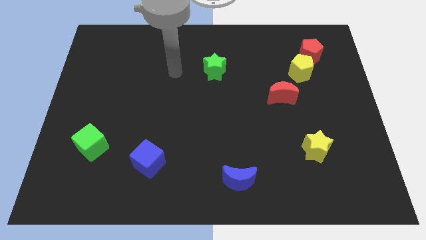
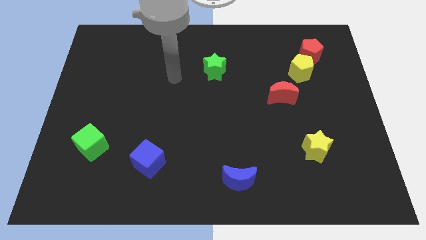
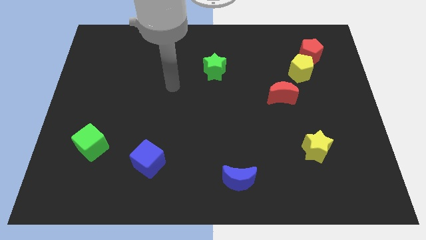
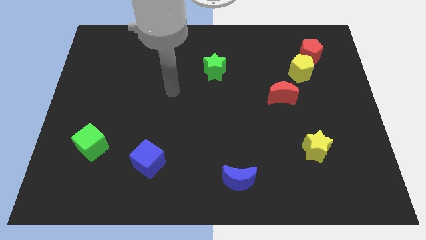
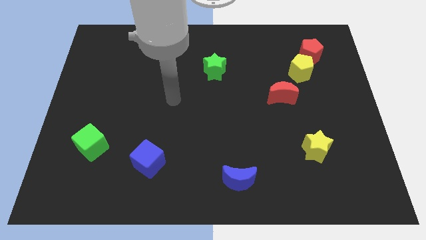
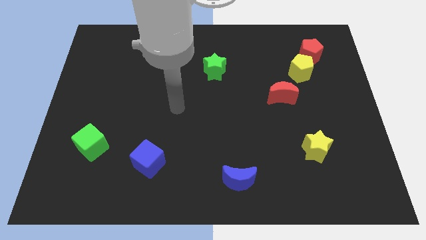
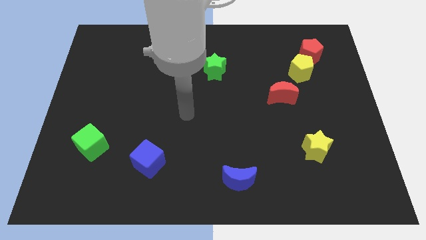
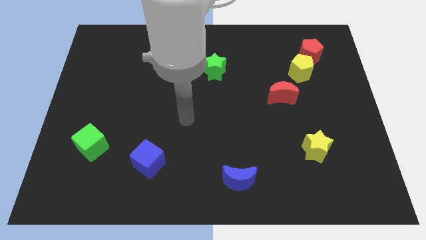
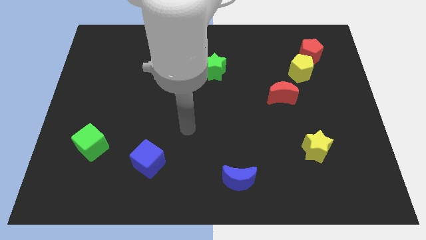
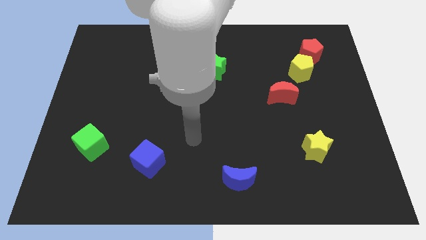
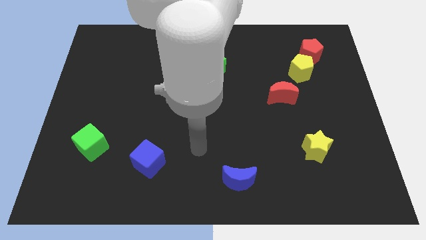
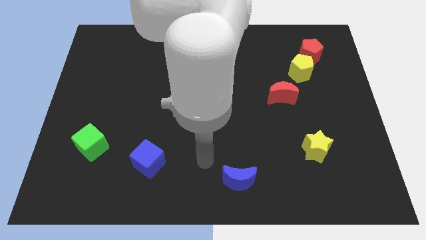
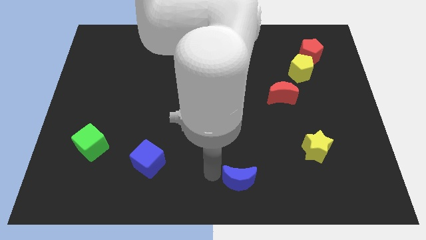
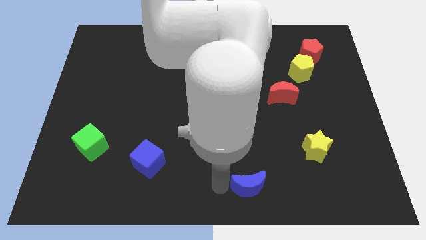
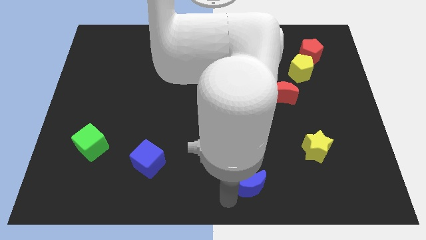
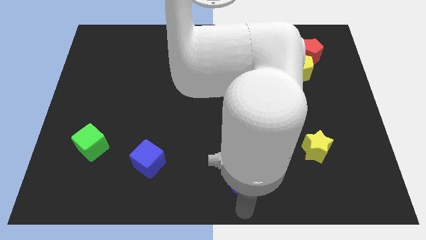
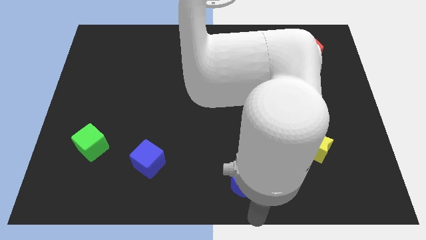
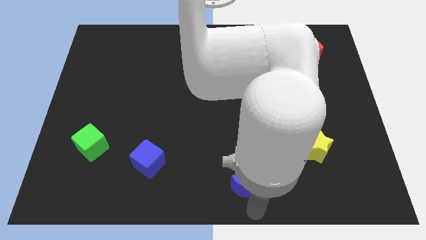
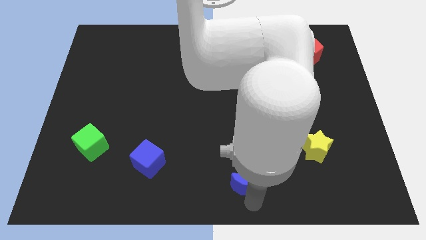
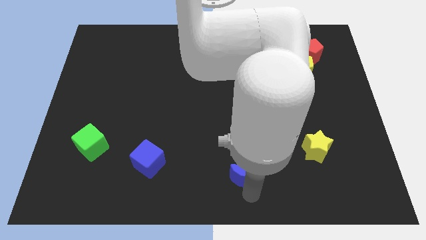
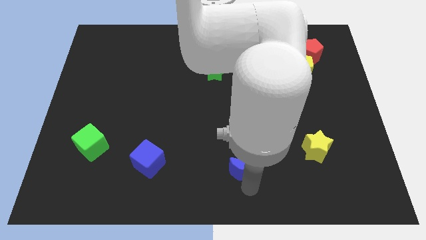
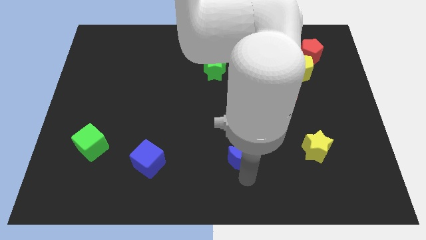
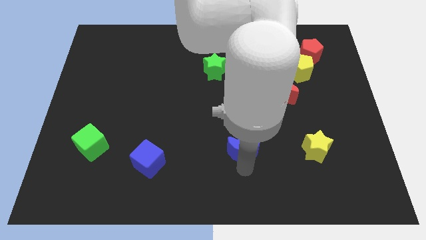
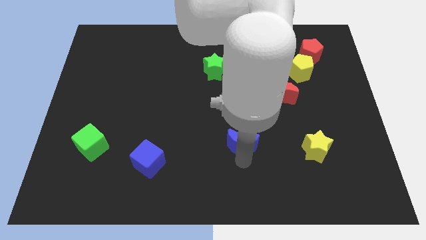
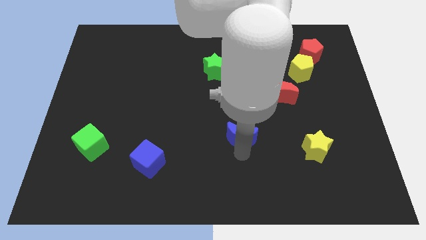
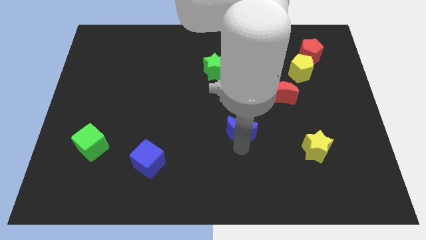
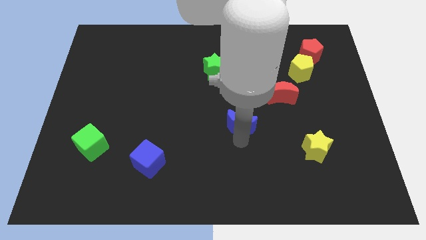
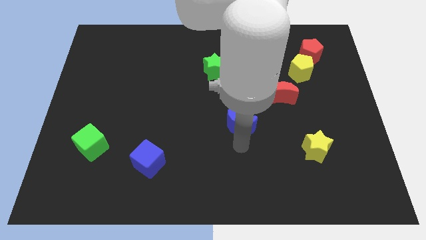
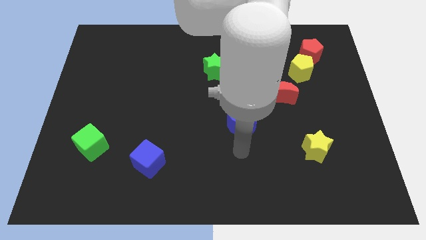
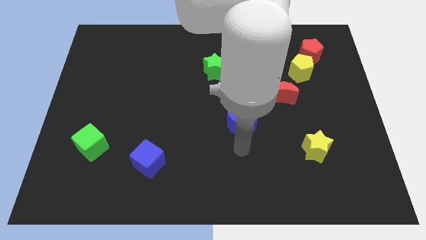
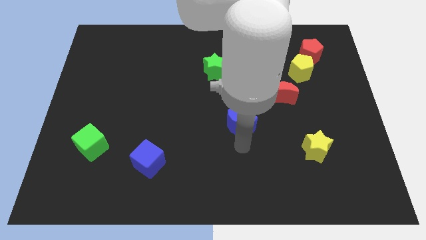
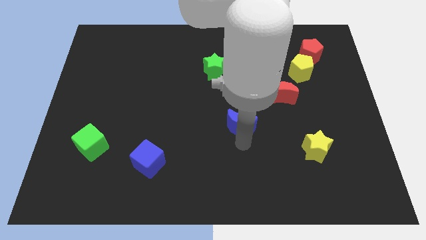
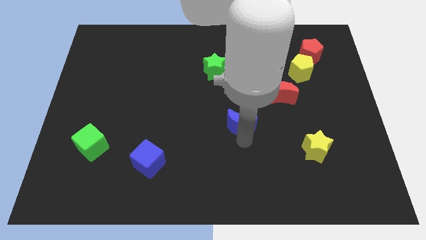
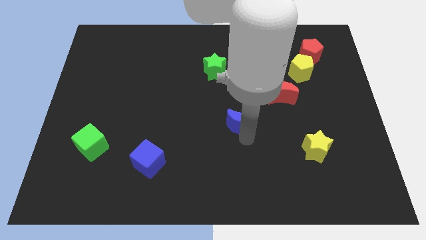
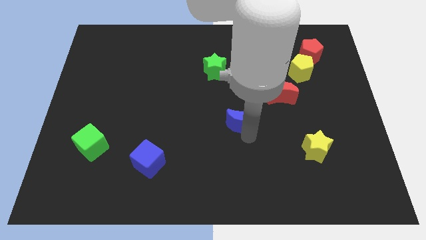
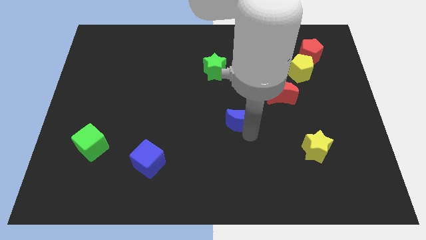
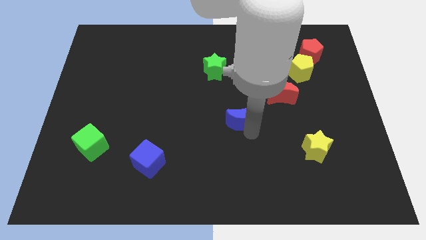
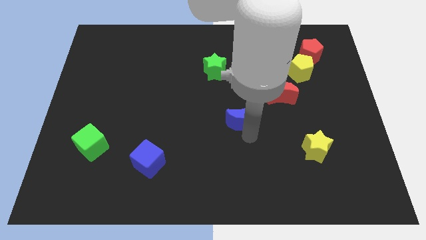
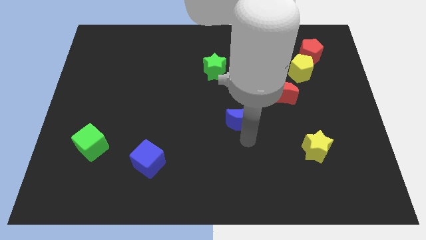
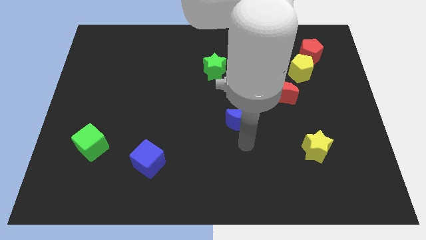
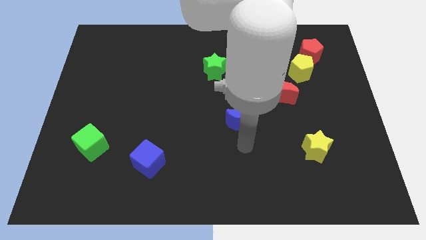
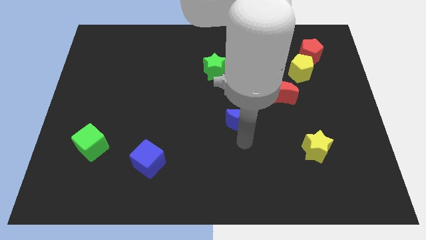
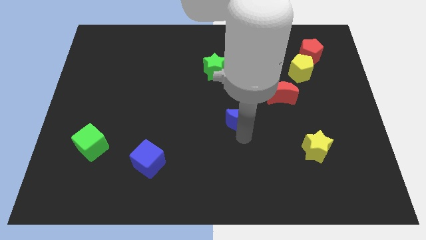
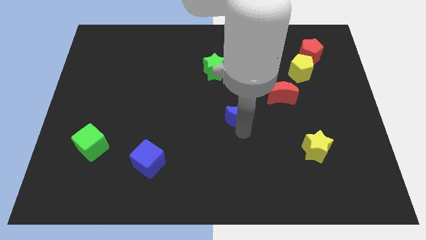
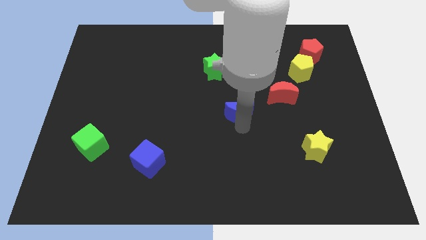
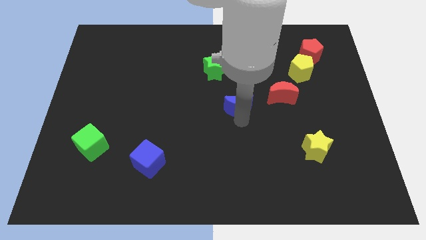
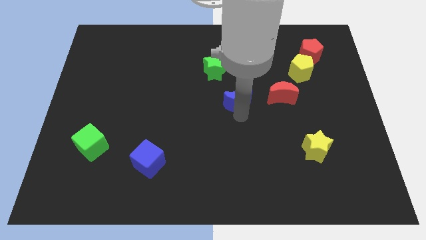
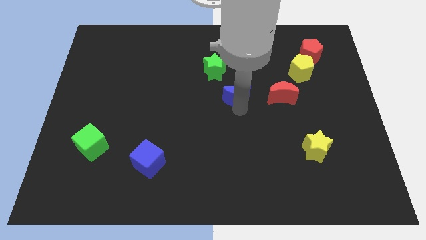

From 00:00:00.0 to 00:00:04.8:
move the blue moon to the bottom right side of the green star

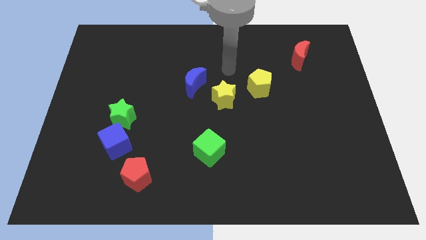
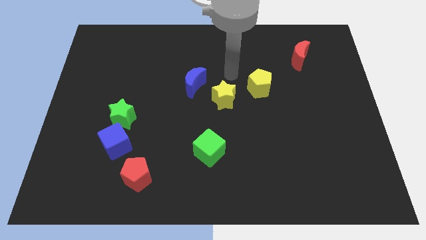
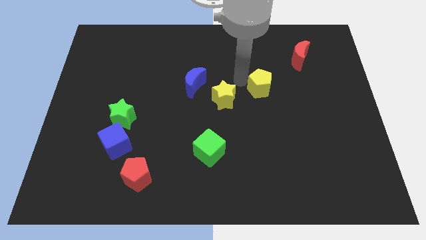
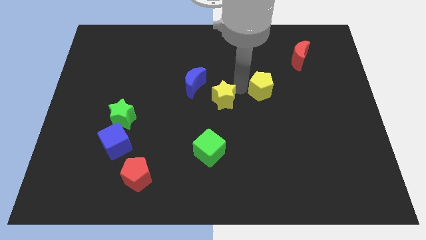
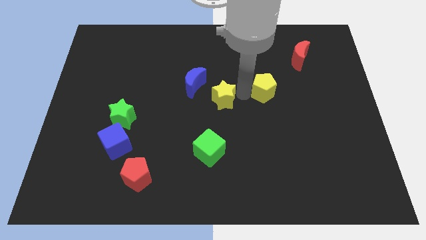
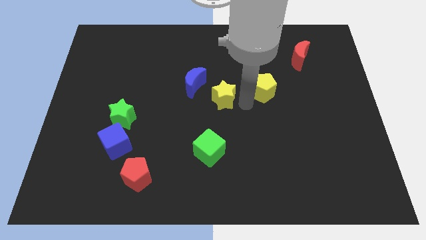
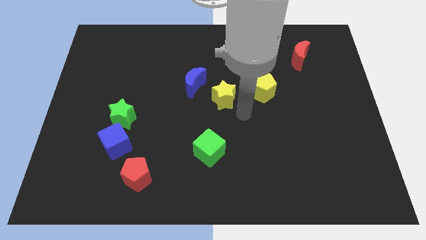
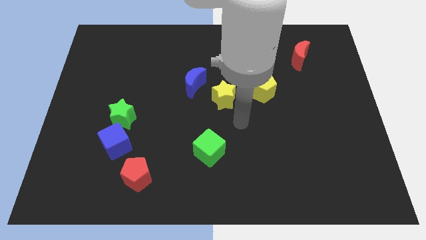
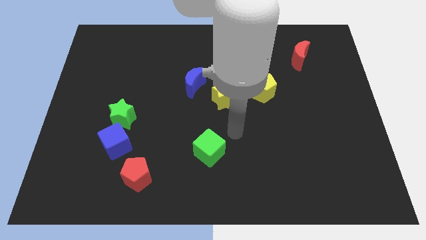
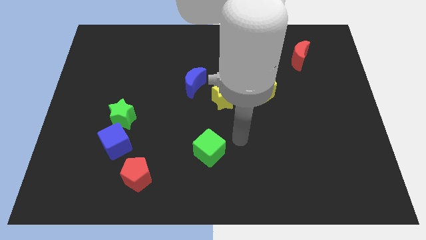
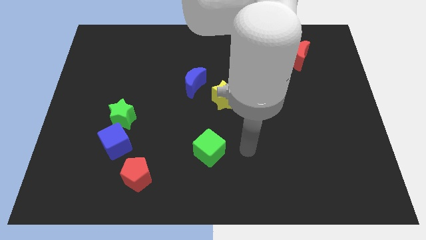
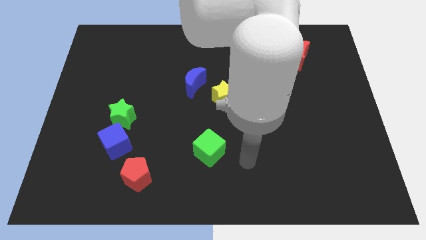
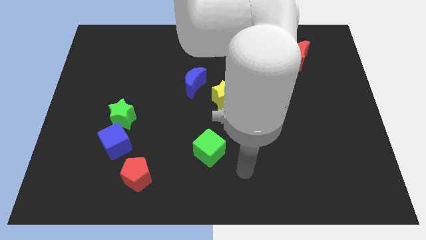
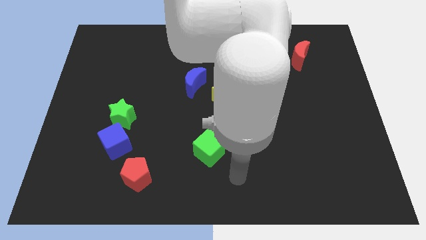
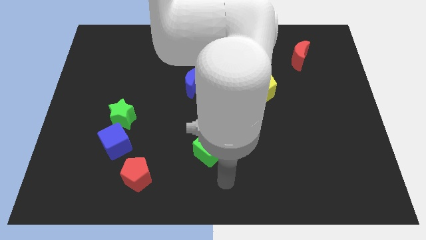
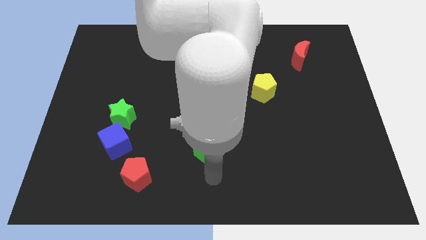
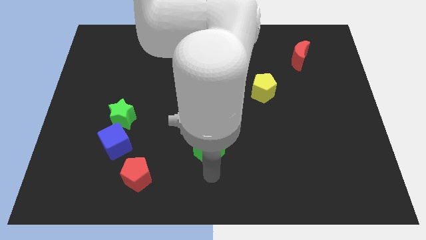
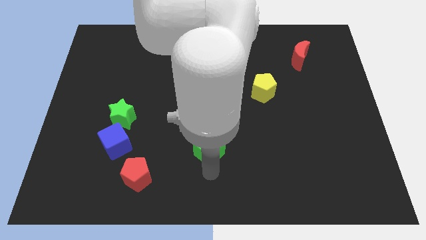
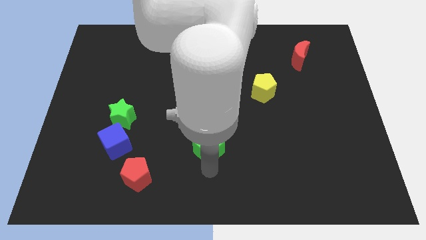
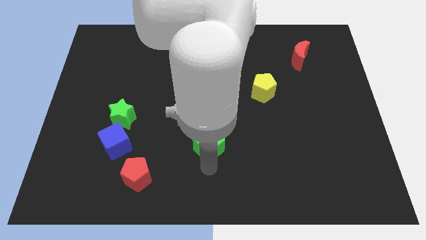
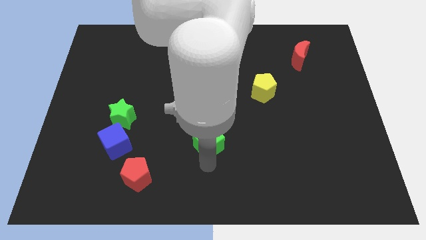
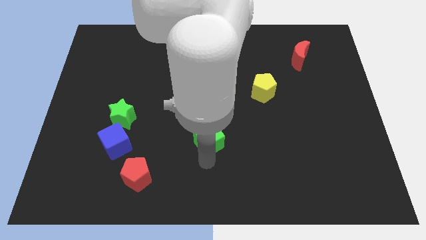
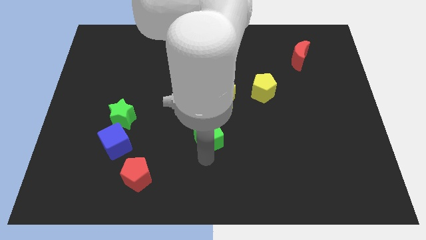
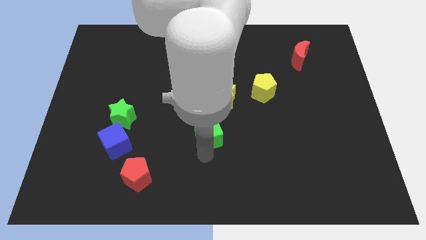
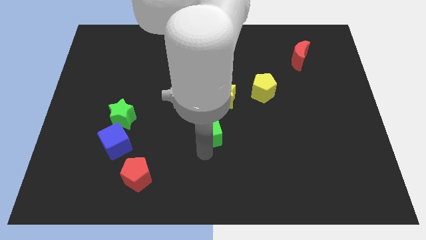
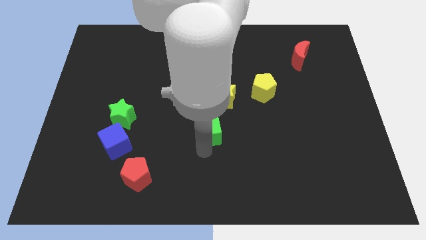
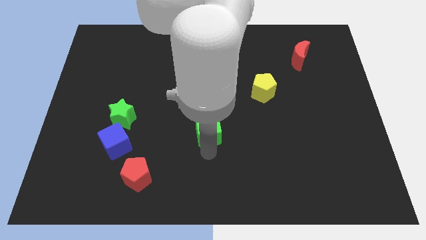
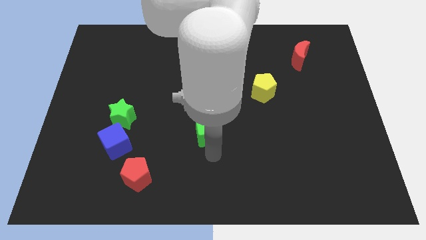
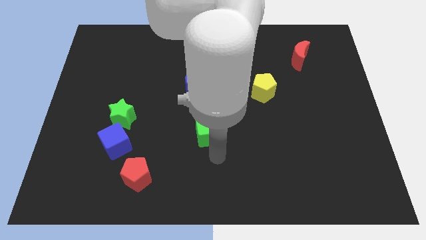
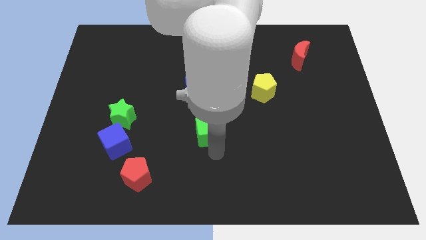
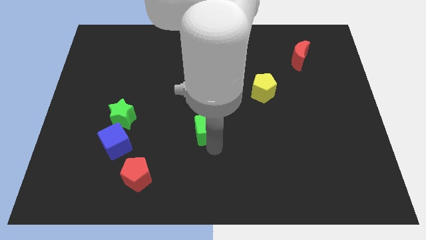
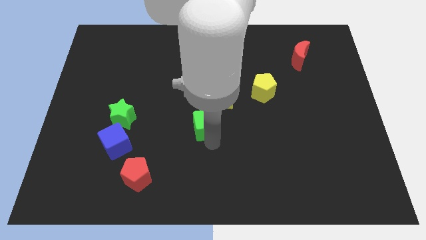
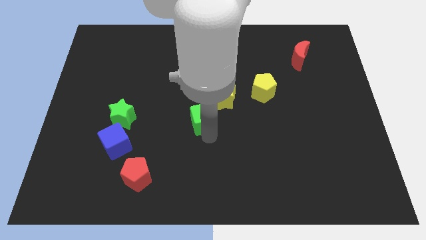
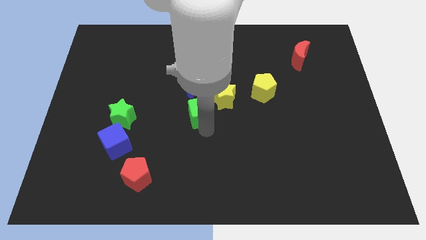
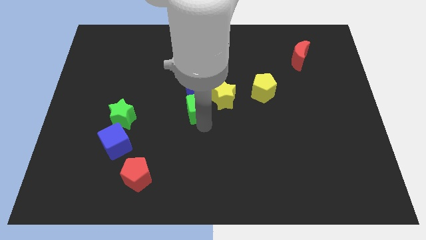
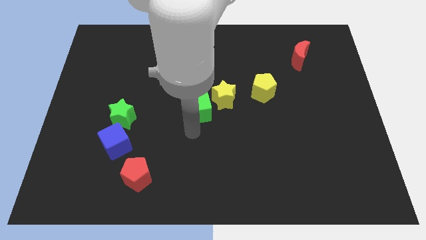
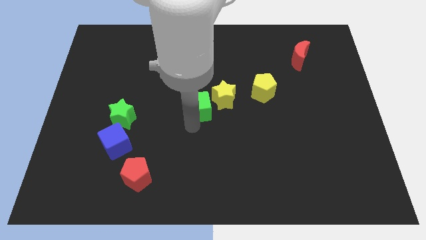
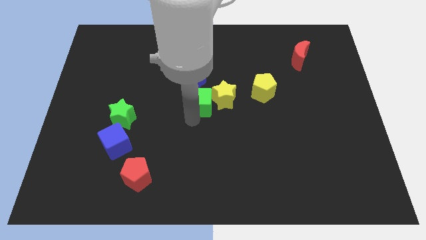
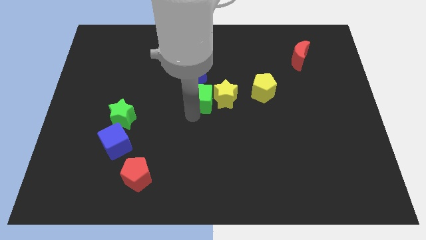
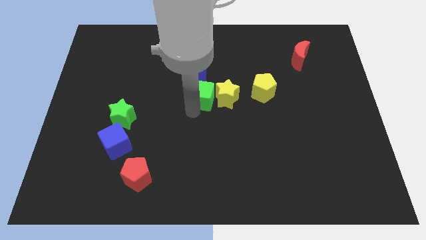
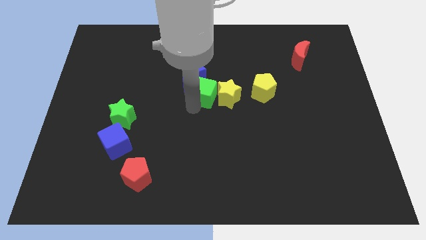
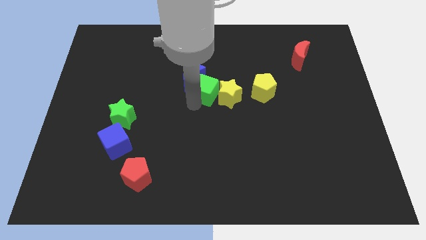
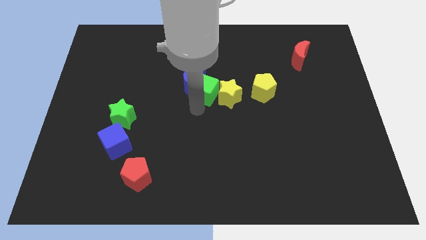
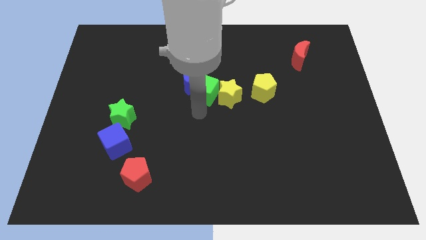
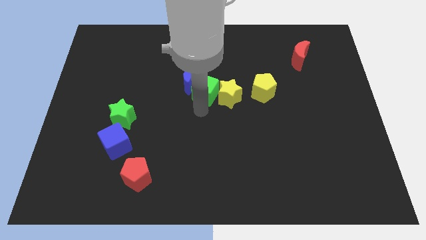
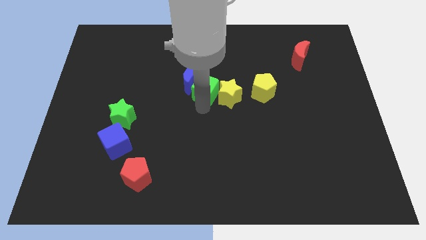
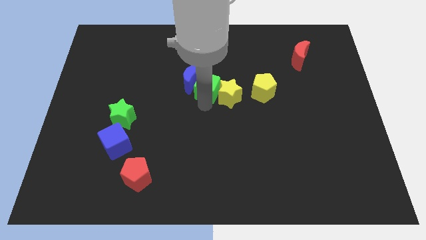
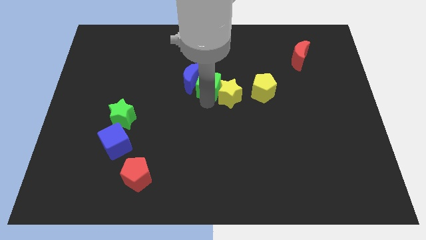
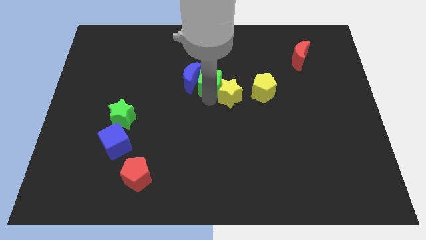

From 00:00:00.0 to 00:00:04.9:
slide the green cube diagonally up and to the right of the blue moon
